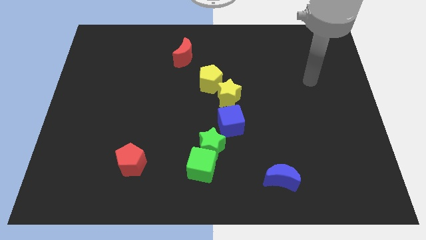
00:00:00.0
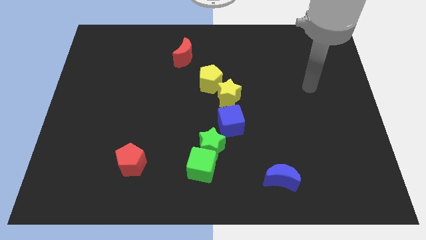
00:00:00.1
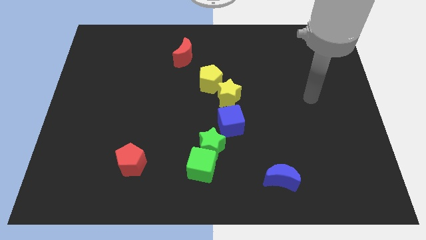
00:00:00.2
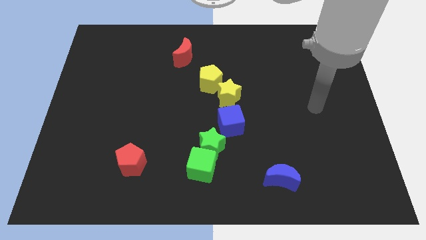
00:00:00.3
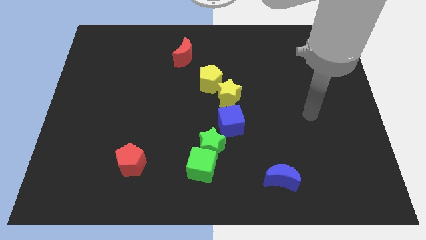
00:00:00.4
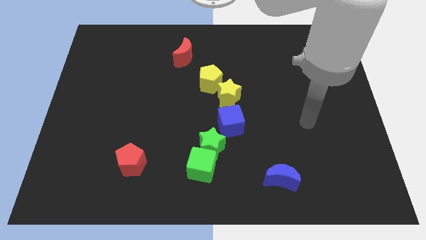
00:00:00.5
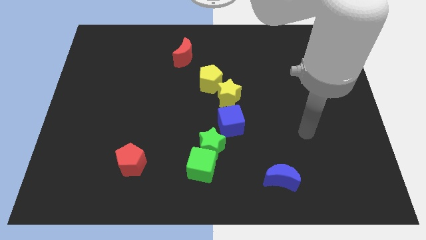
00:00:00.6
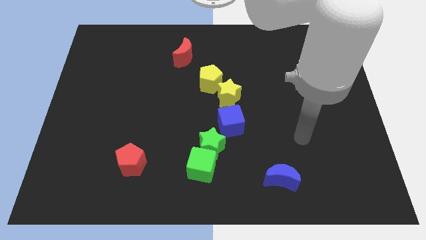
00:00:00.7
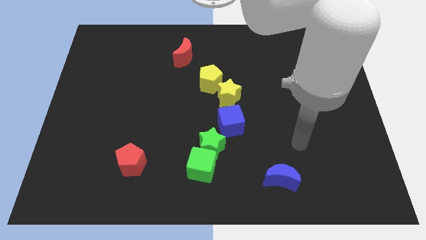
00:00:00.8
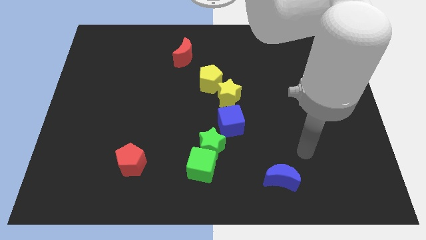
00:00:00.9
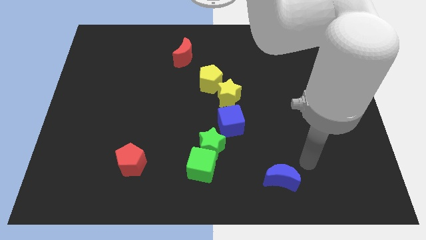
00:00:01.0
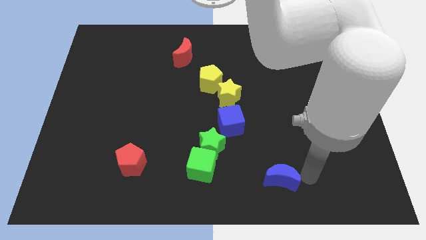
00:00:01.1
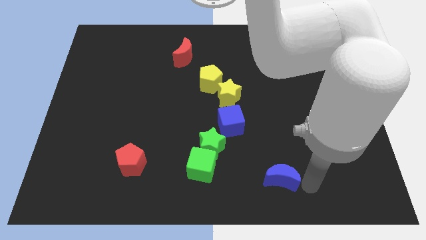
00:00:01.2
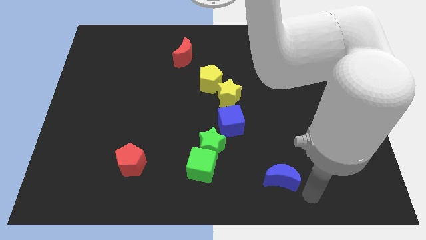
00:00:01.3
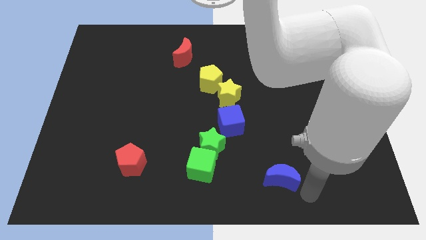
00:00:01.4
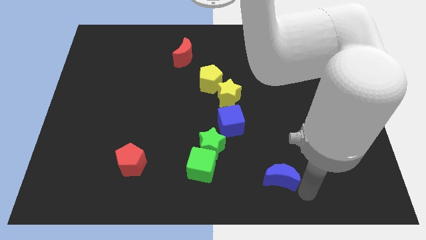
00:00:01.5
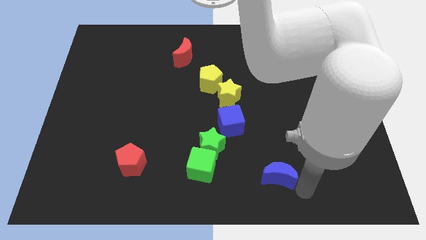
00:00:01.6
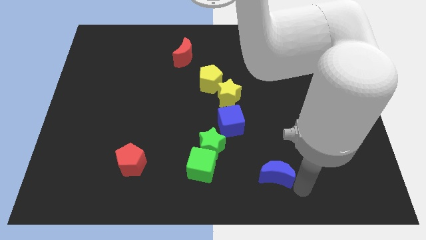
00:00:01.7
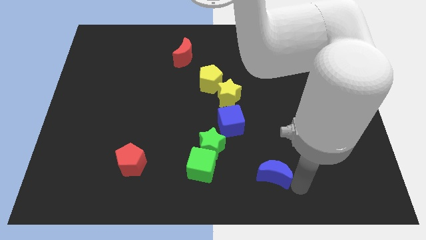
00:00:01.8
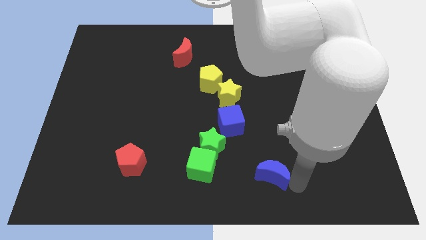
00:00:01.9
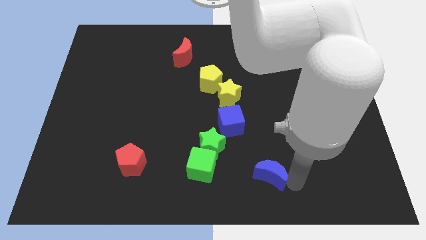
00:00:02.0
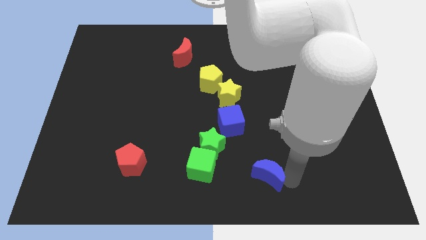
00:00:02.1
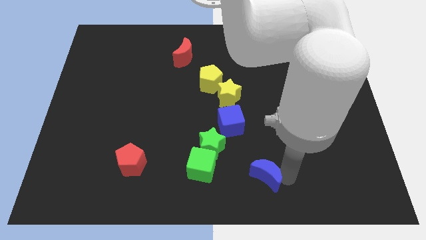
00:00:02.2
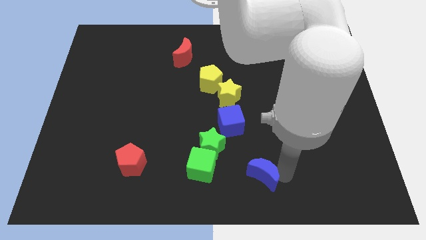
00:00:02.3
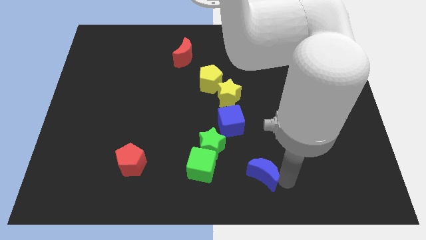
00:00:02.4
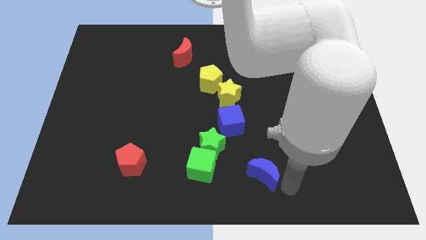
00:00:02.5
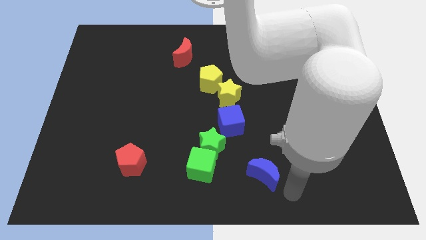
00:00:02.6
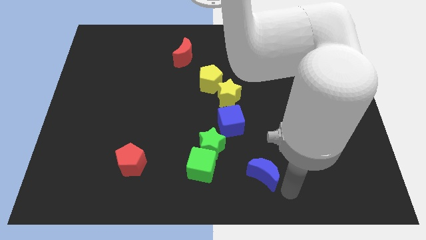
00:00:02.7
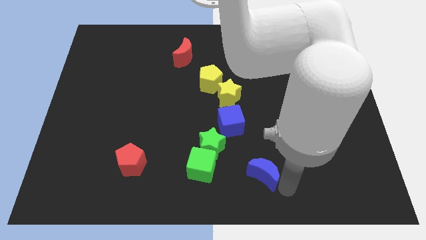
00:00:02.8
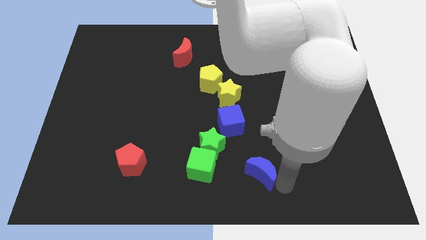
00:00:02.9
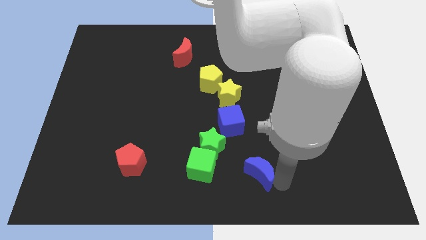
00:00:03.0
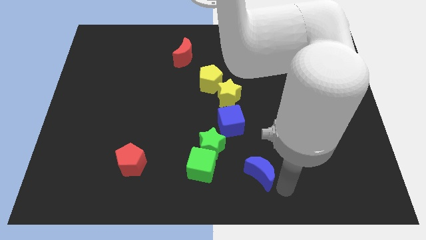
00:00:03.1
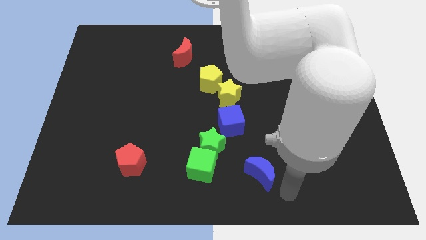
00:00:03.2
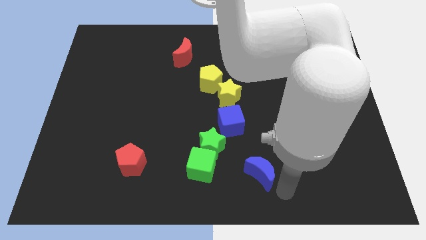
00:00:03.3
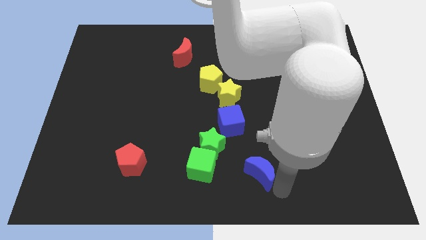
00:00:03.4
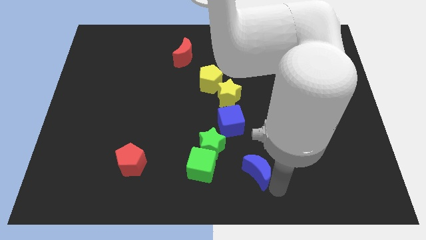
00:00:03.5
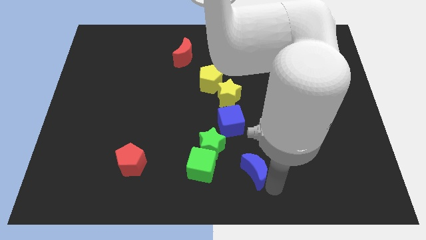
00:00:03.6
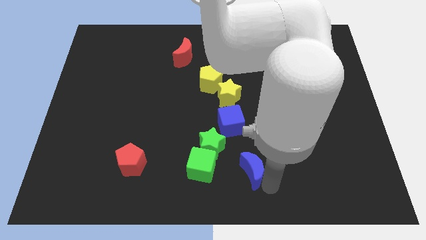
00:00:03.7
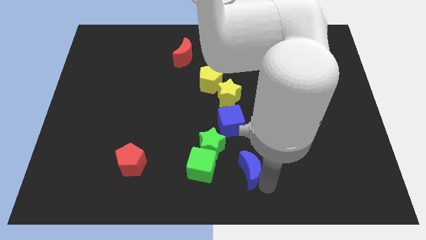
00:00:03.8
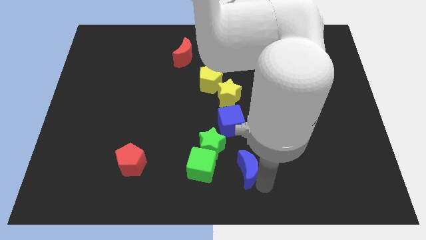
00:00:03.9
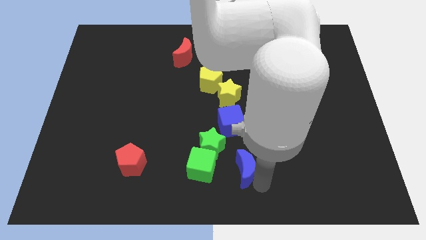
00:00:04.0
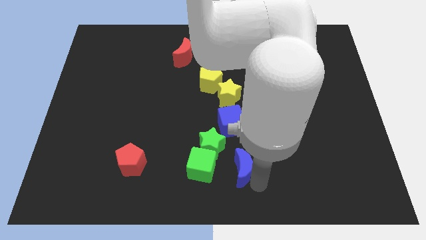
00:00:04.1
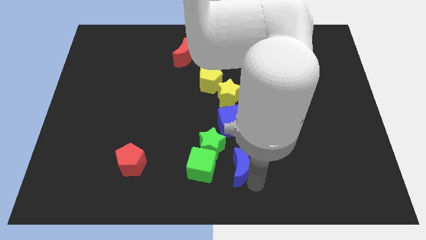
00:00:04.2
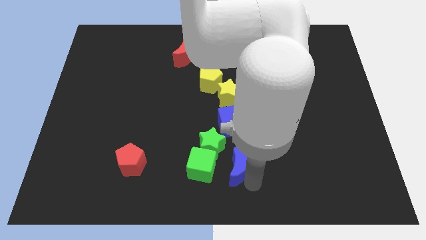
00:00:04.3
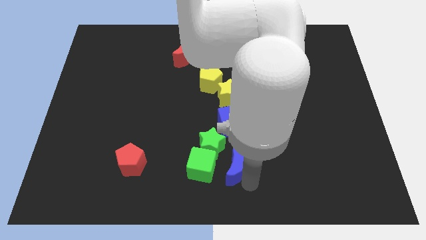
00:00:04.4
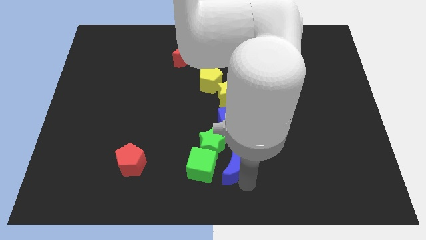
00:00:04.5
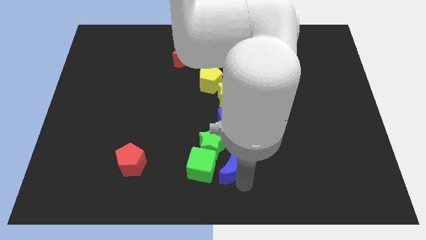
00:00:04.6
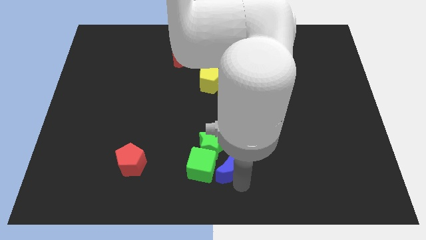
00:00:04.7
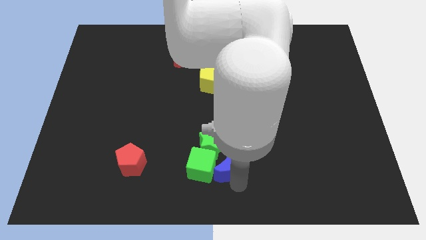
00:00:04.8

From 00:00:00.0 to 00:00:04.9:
push the blue moon next to the green star

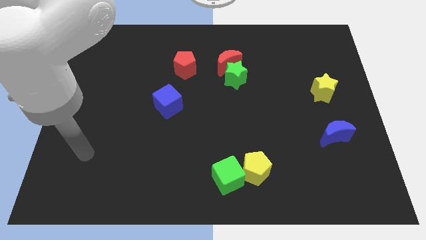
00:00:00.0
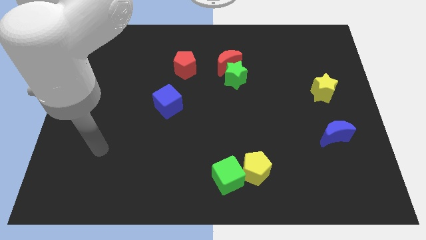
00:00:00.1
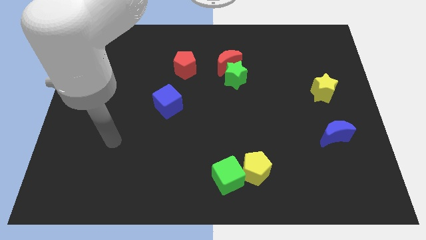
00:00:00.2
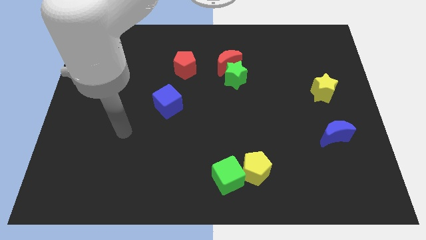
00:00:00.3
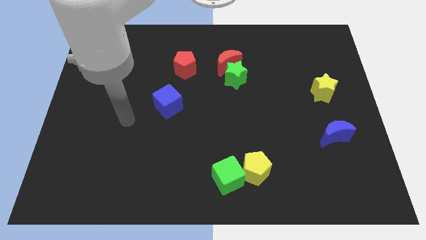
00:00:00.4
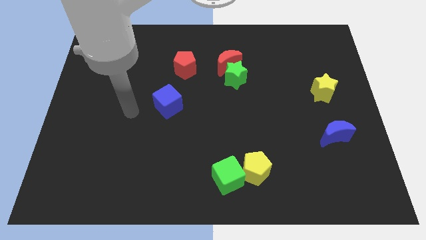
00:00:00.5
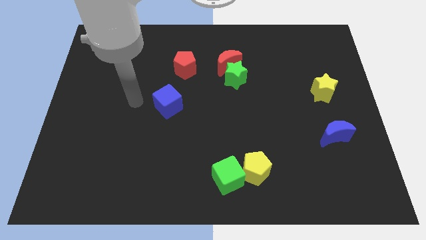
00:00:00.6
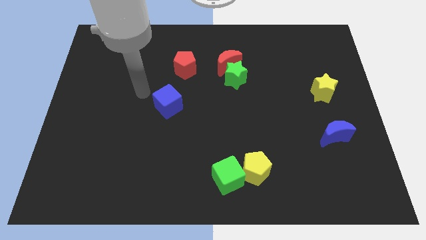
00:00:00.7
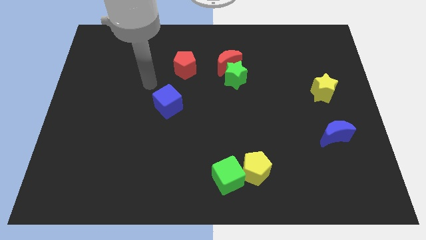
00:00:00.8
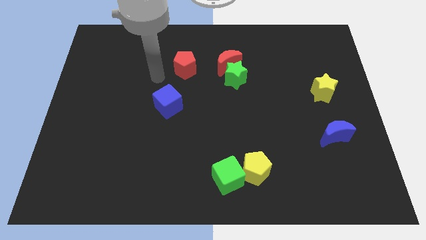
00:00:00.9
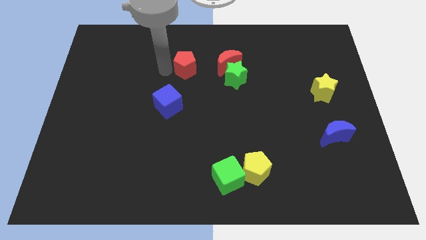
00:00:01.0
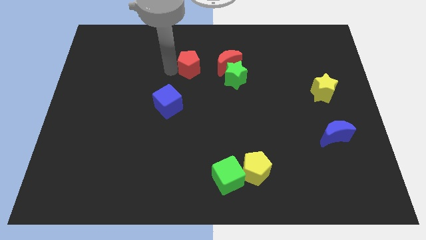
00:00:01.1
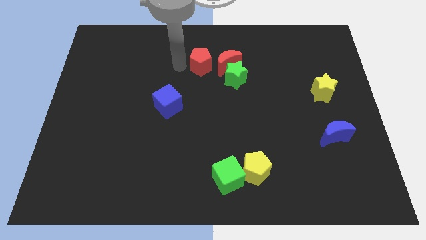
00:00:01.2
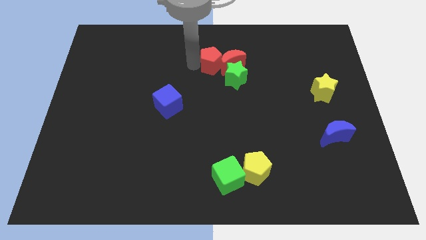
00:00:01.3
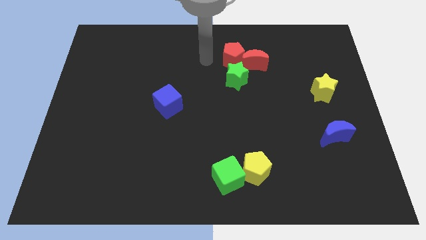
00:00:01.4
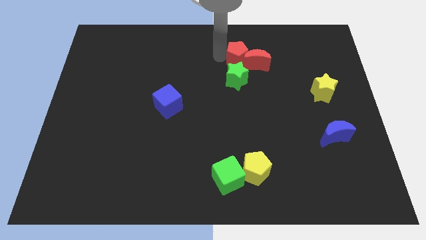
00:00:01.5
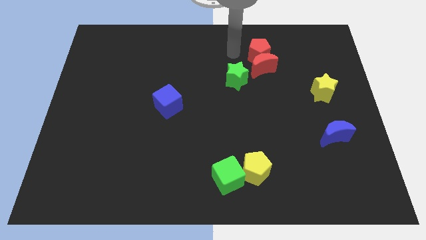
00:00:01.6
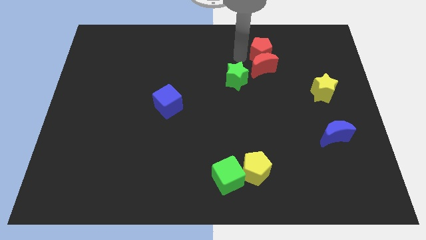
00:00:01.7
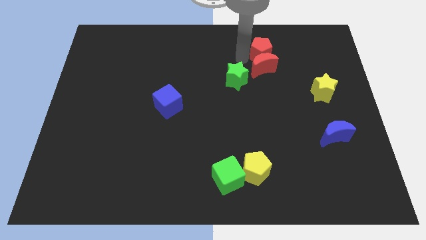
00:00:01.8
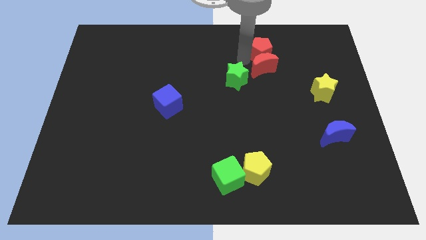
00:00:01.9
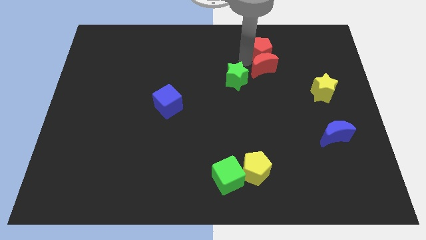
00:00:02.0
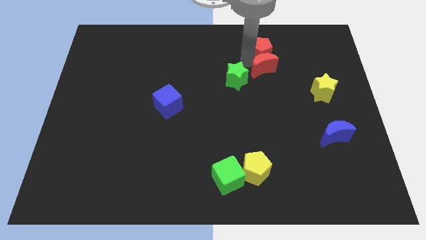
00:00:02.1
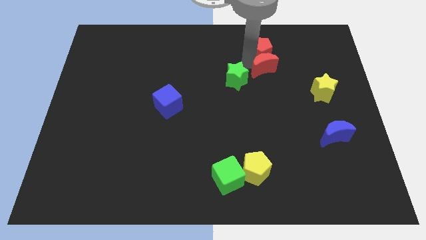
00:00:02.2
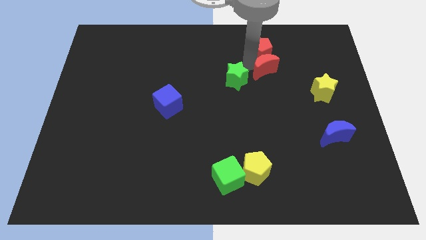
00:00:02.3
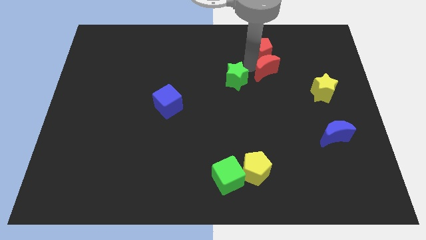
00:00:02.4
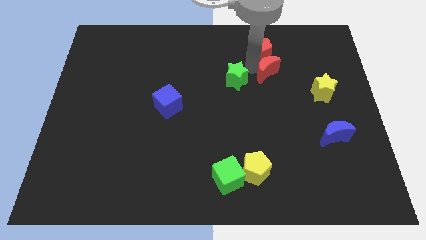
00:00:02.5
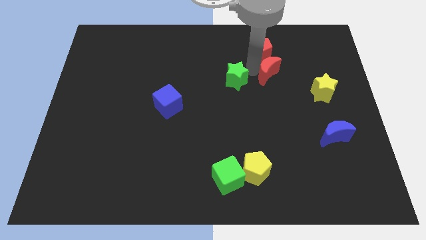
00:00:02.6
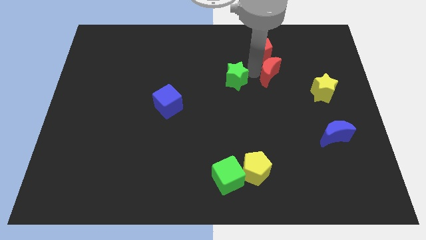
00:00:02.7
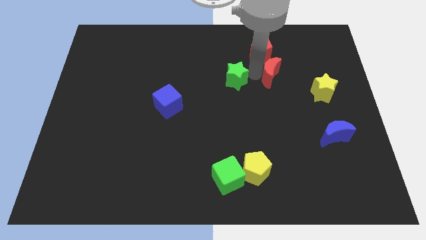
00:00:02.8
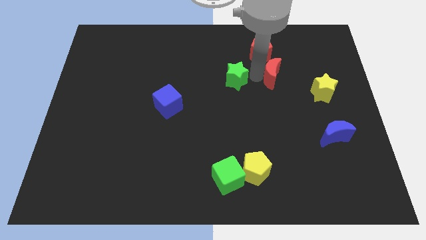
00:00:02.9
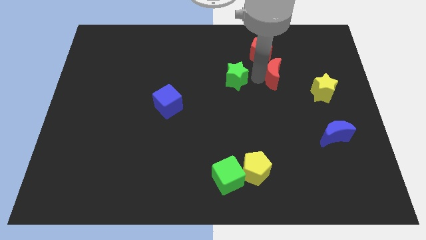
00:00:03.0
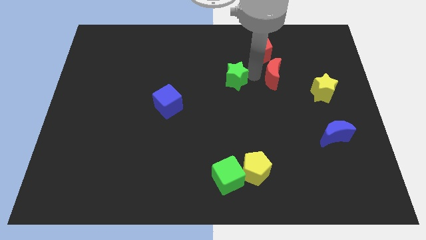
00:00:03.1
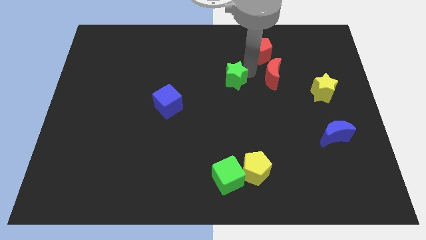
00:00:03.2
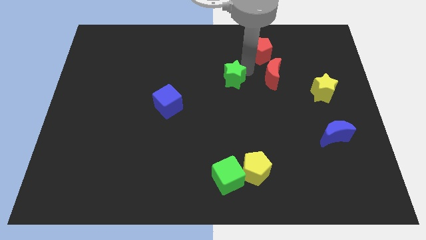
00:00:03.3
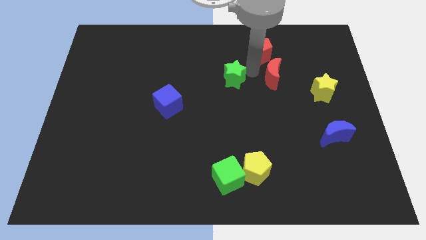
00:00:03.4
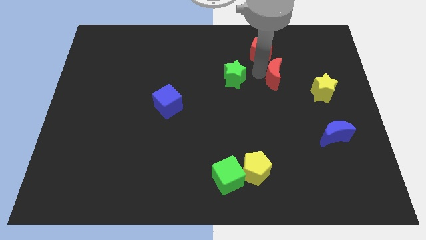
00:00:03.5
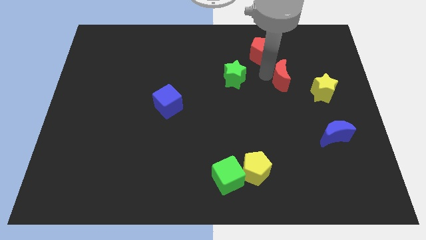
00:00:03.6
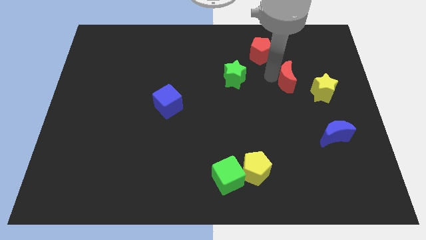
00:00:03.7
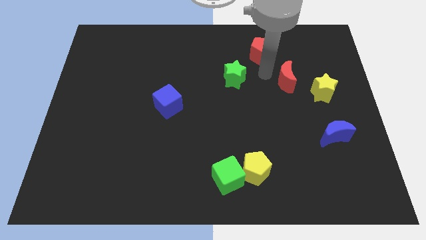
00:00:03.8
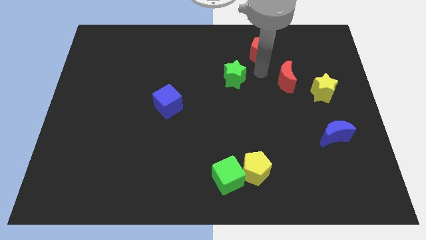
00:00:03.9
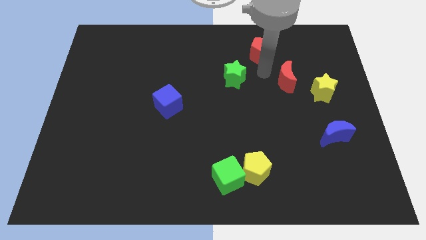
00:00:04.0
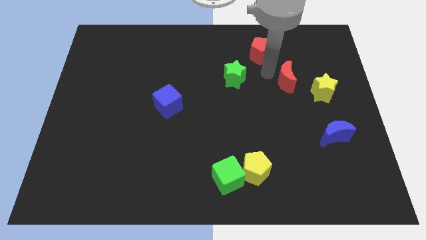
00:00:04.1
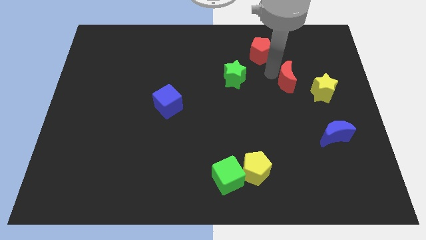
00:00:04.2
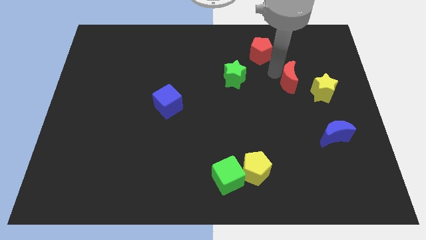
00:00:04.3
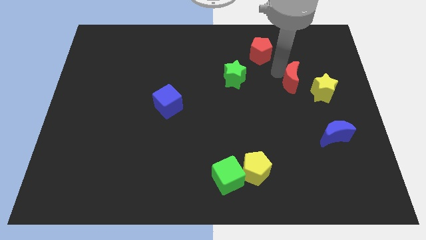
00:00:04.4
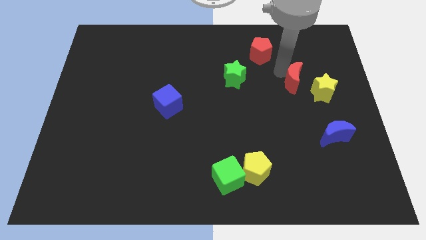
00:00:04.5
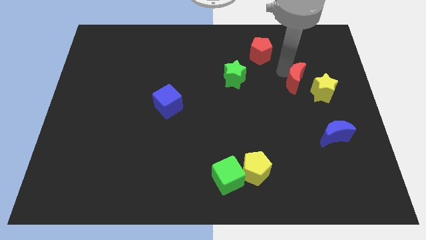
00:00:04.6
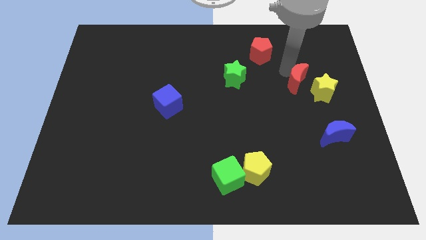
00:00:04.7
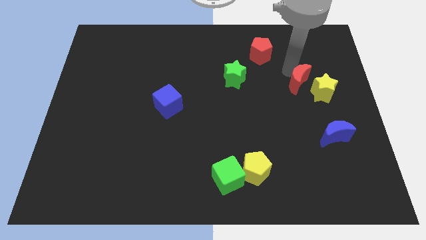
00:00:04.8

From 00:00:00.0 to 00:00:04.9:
put the red moon to the yellow star
